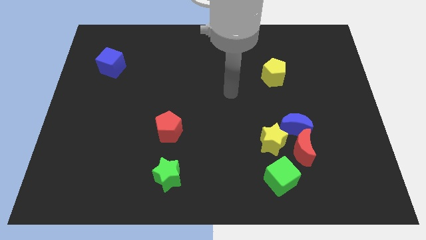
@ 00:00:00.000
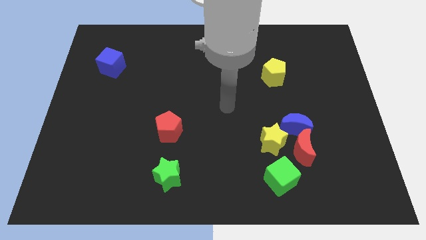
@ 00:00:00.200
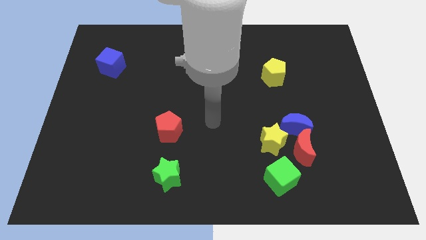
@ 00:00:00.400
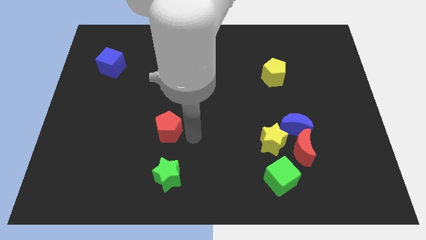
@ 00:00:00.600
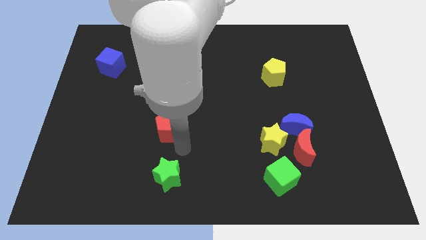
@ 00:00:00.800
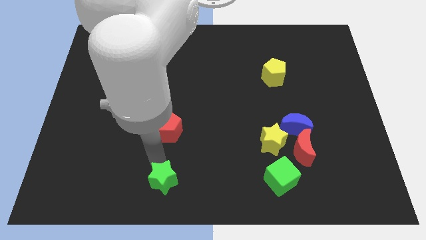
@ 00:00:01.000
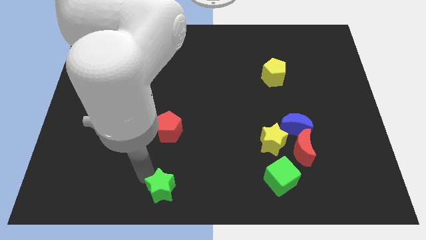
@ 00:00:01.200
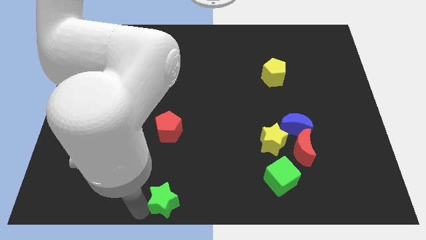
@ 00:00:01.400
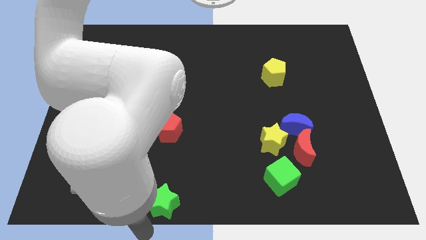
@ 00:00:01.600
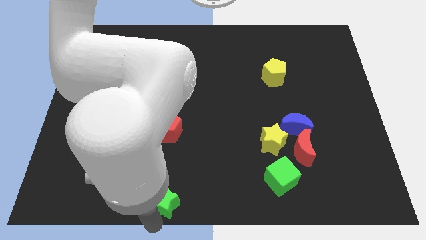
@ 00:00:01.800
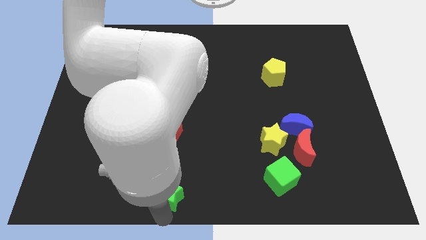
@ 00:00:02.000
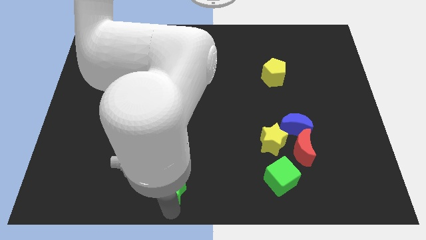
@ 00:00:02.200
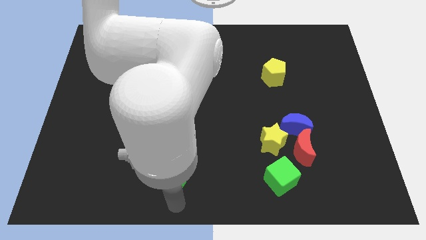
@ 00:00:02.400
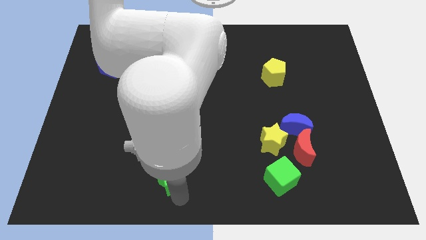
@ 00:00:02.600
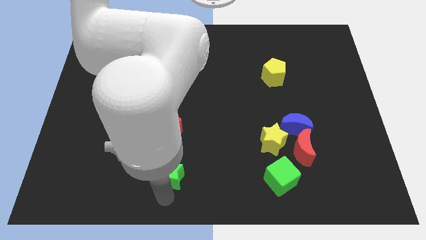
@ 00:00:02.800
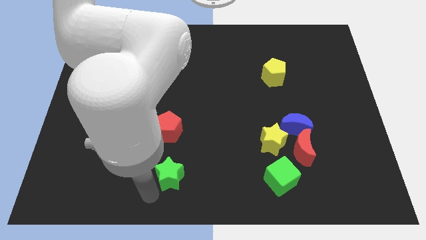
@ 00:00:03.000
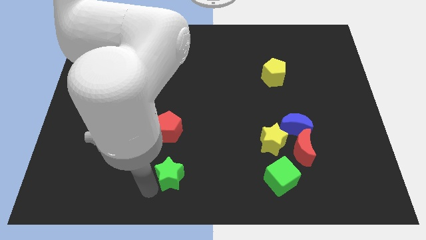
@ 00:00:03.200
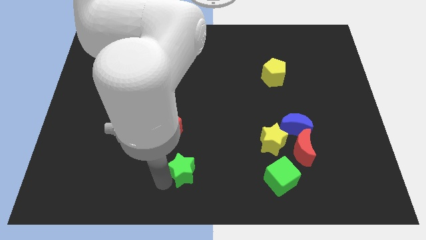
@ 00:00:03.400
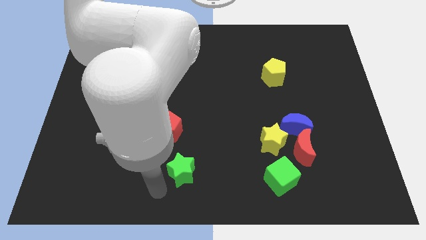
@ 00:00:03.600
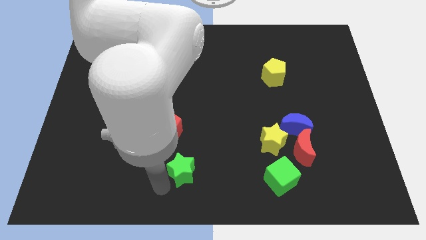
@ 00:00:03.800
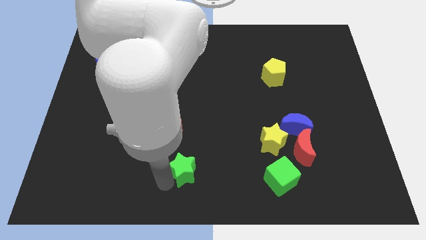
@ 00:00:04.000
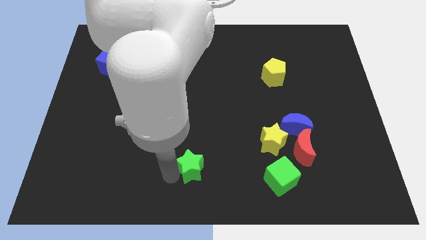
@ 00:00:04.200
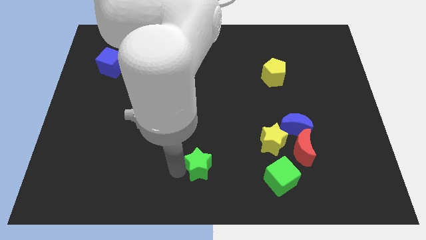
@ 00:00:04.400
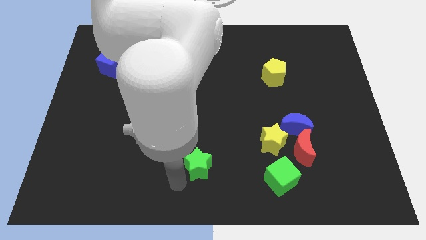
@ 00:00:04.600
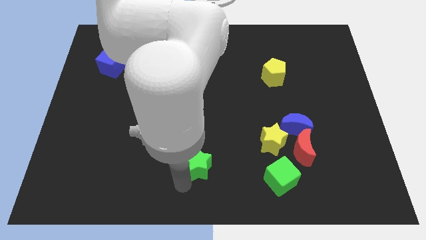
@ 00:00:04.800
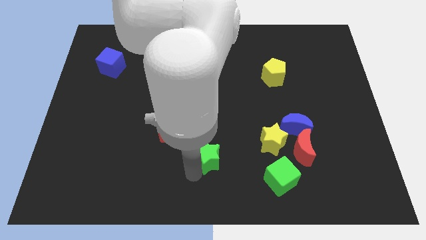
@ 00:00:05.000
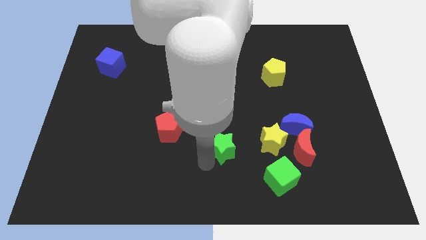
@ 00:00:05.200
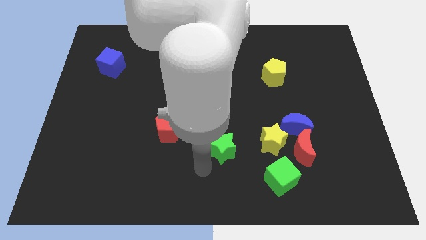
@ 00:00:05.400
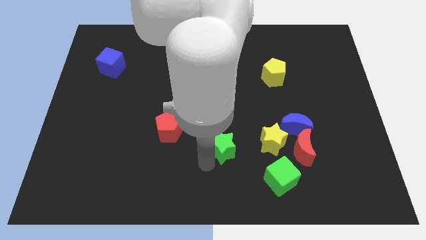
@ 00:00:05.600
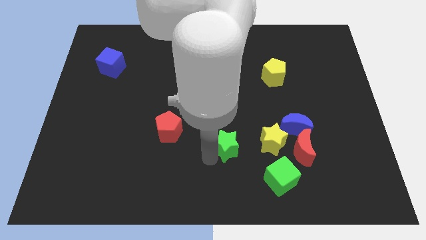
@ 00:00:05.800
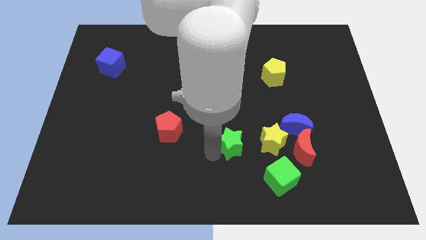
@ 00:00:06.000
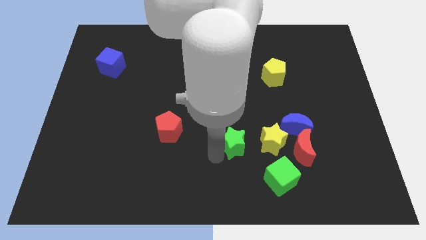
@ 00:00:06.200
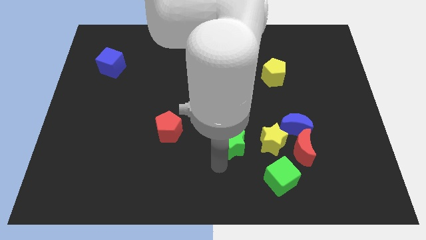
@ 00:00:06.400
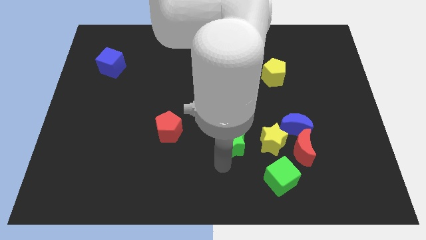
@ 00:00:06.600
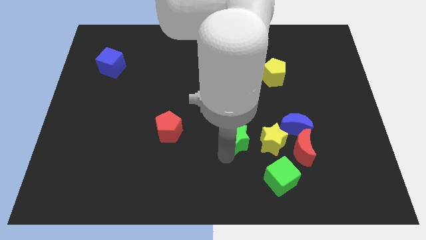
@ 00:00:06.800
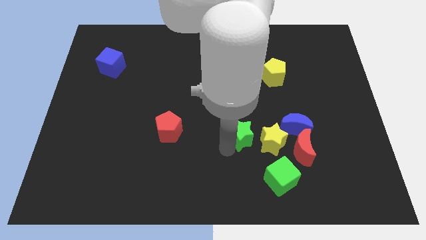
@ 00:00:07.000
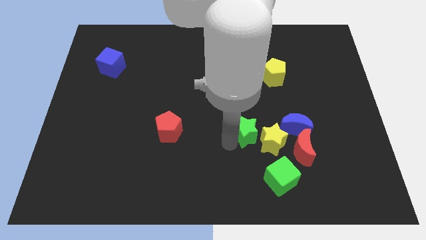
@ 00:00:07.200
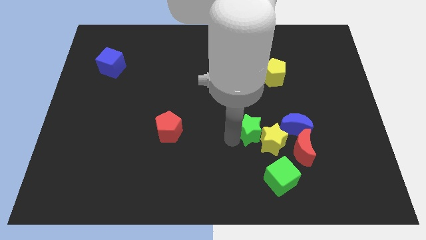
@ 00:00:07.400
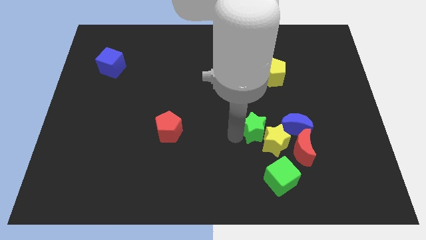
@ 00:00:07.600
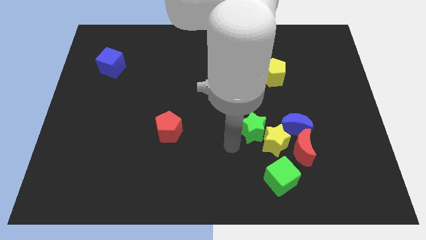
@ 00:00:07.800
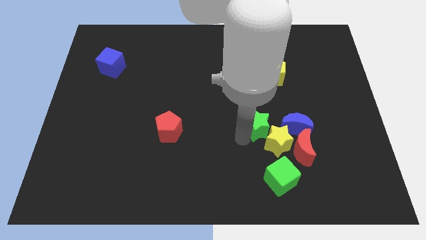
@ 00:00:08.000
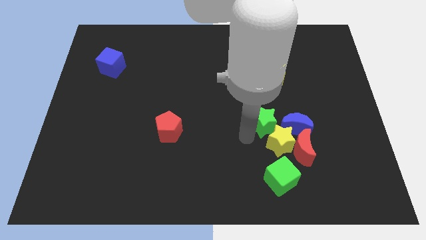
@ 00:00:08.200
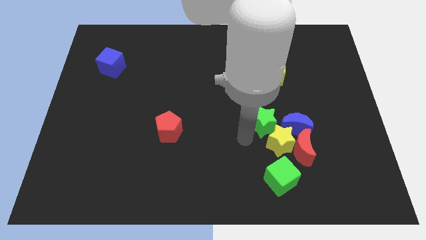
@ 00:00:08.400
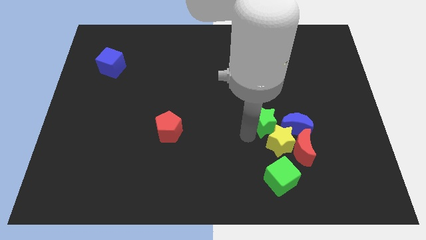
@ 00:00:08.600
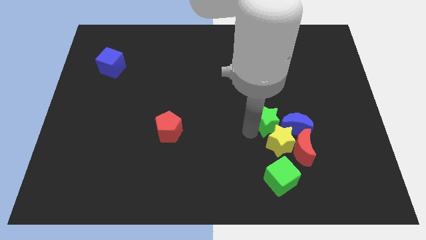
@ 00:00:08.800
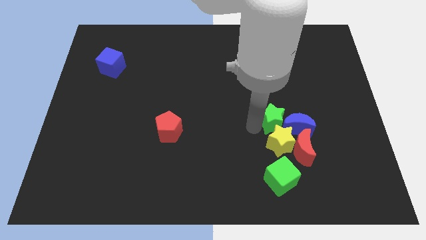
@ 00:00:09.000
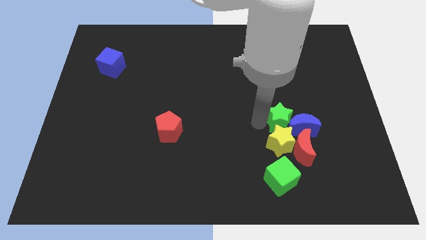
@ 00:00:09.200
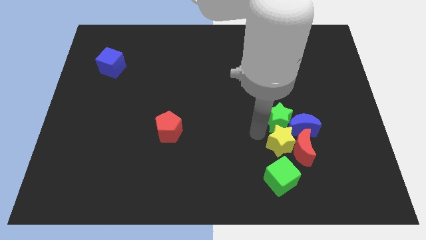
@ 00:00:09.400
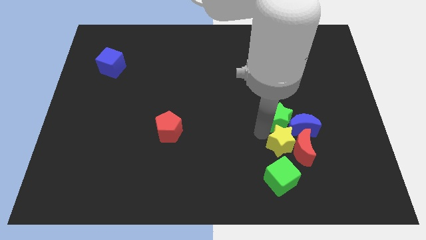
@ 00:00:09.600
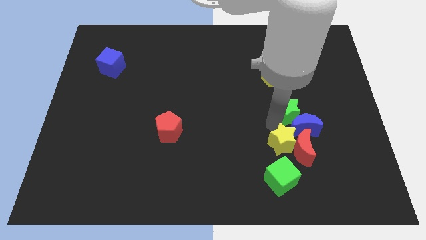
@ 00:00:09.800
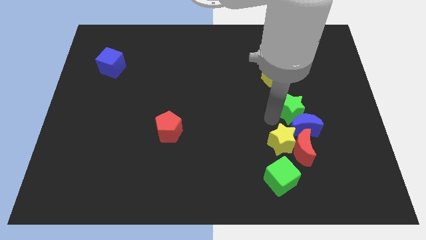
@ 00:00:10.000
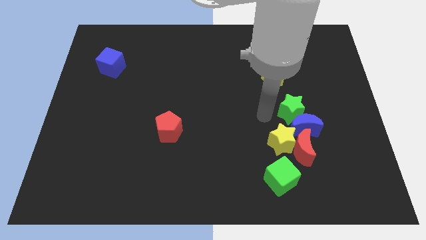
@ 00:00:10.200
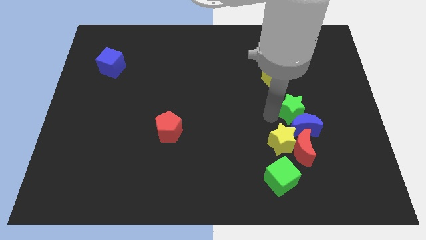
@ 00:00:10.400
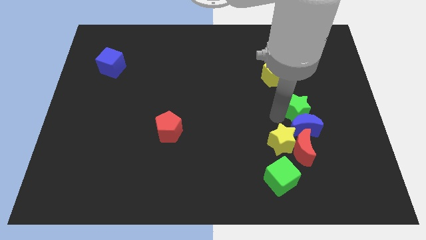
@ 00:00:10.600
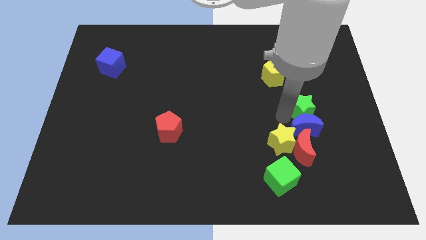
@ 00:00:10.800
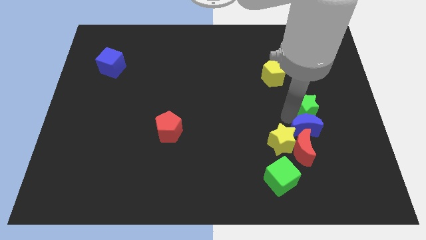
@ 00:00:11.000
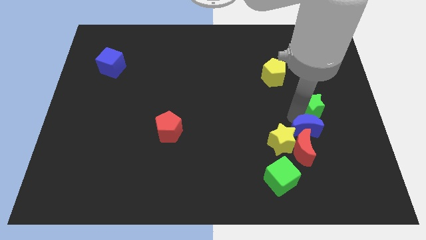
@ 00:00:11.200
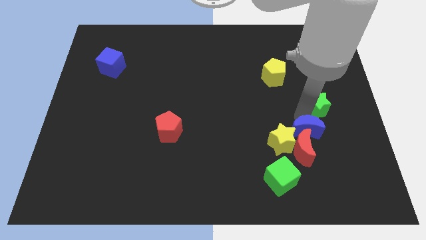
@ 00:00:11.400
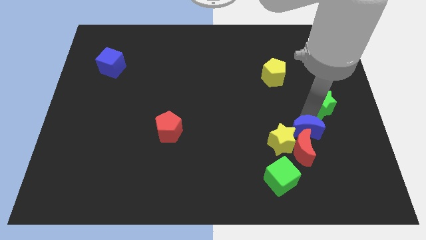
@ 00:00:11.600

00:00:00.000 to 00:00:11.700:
slide the green star to the right side of the board

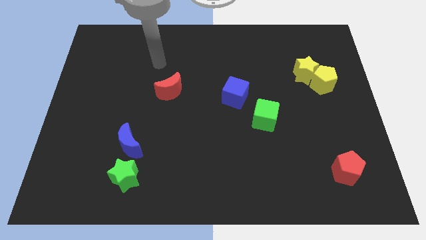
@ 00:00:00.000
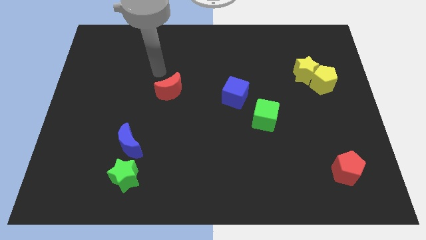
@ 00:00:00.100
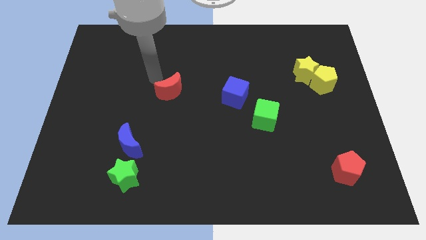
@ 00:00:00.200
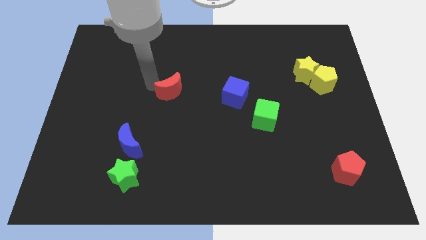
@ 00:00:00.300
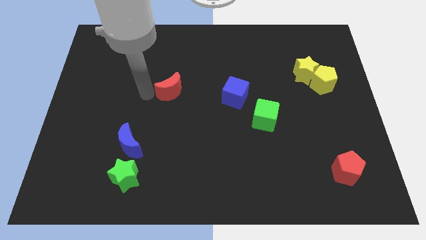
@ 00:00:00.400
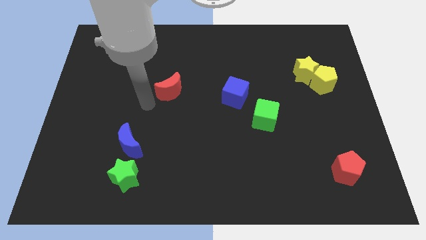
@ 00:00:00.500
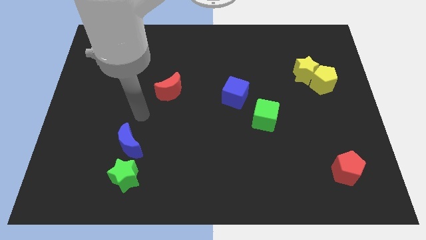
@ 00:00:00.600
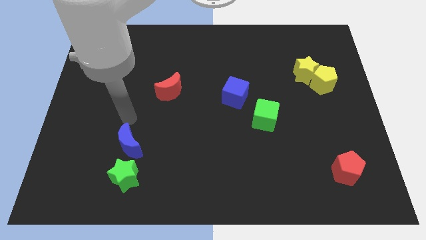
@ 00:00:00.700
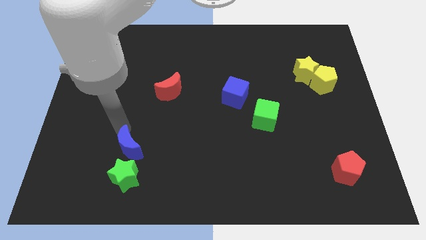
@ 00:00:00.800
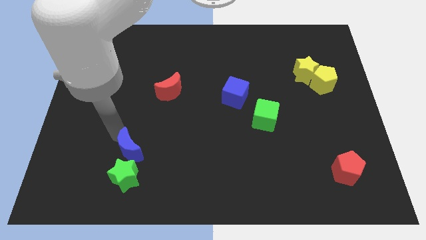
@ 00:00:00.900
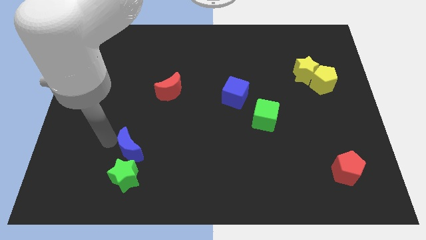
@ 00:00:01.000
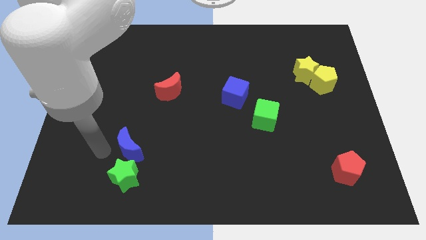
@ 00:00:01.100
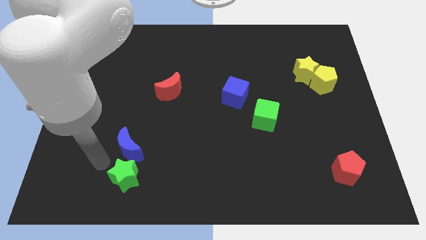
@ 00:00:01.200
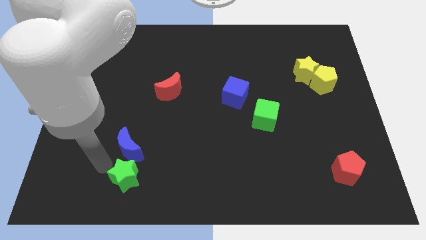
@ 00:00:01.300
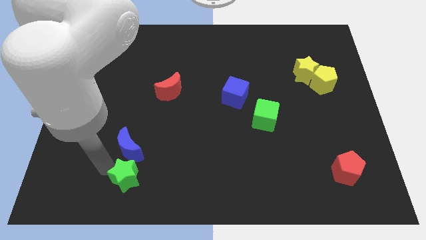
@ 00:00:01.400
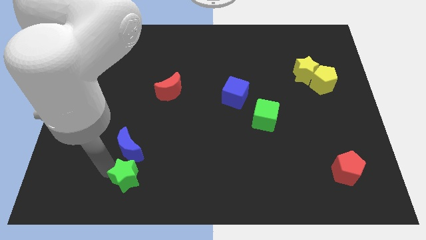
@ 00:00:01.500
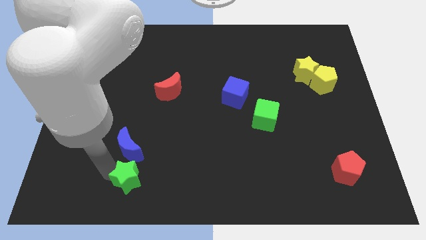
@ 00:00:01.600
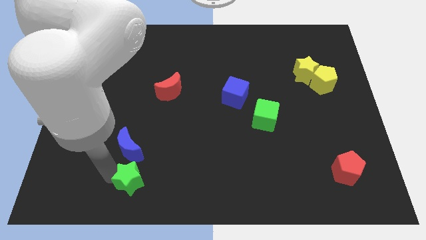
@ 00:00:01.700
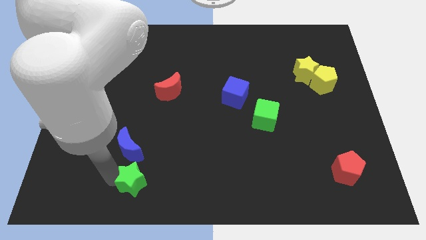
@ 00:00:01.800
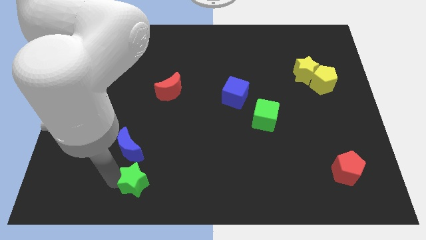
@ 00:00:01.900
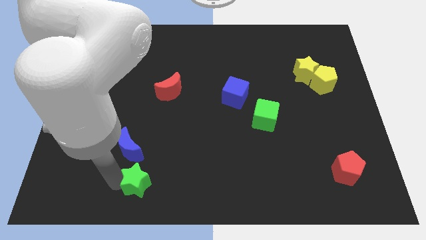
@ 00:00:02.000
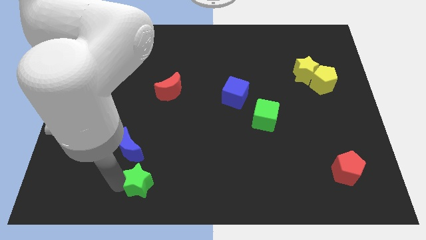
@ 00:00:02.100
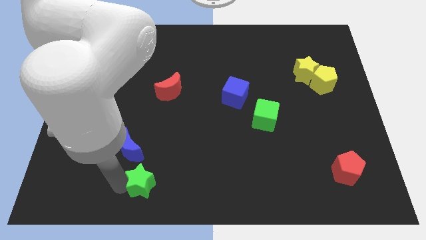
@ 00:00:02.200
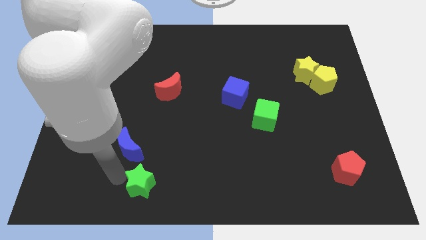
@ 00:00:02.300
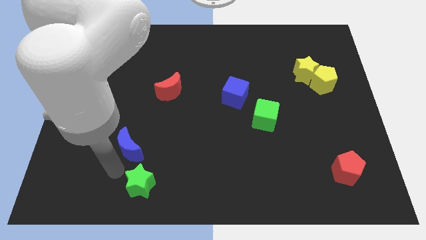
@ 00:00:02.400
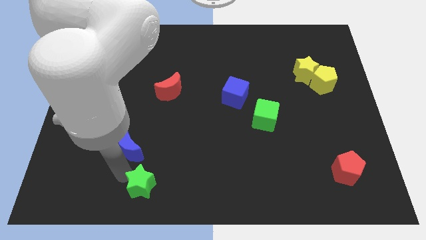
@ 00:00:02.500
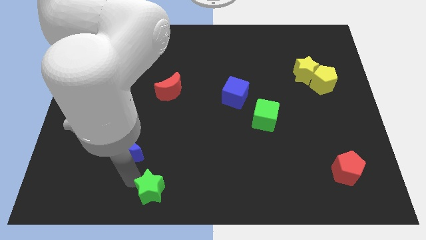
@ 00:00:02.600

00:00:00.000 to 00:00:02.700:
slide the green star to the bottom side
